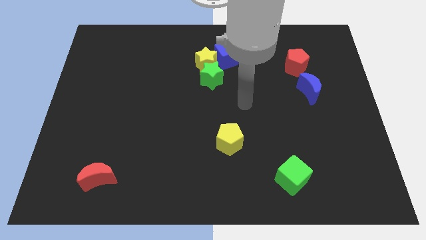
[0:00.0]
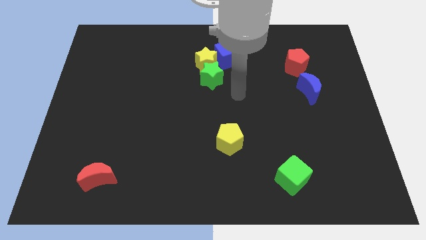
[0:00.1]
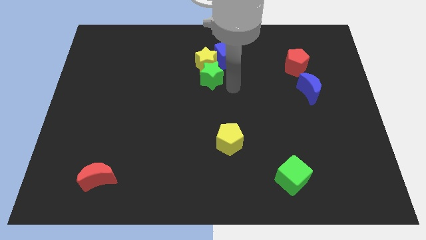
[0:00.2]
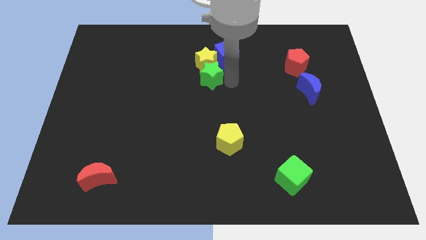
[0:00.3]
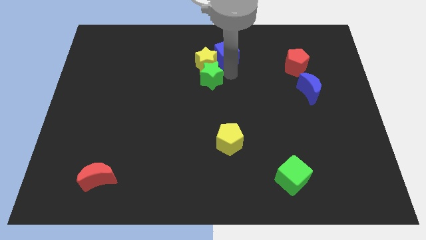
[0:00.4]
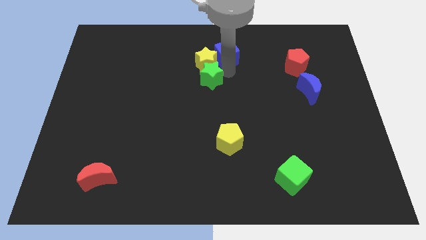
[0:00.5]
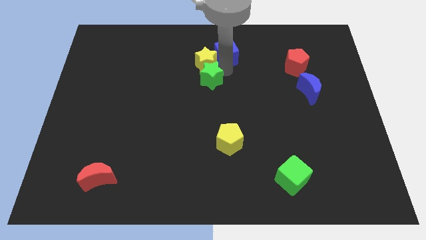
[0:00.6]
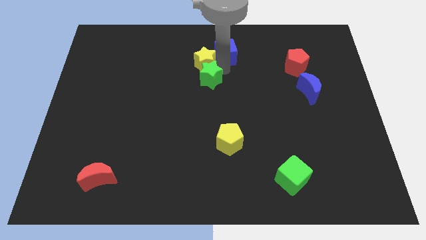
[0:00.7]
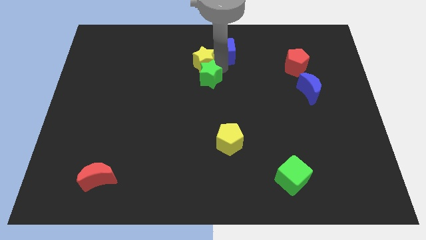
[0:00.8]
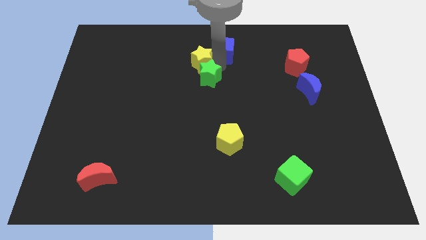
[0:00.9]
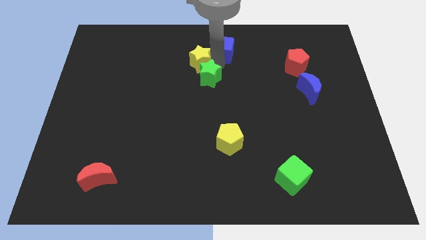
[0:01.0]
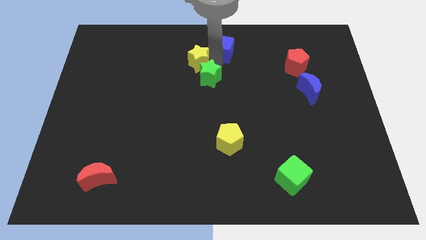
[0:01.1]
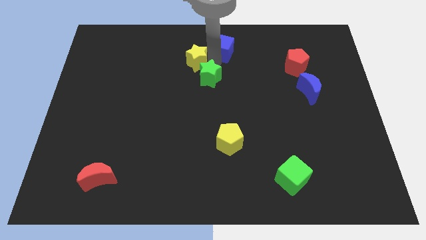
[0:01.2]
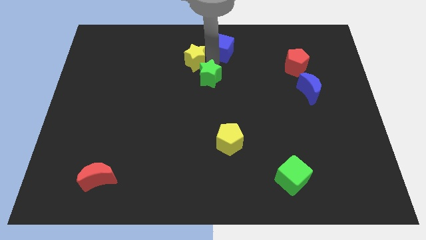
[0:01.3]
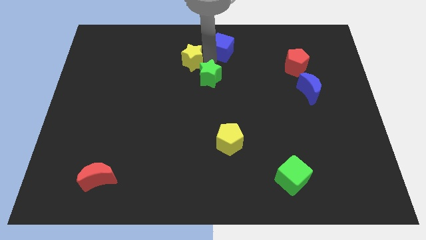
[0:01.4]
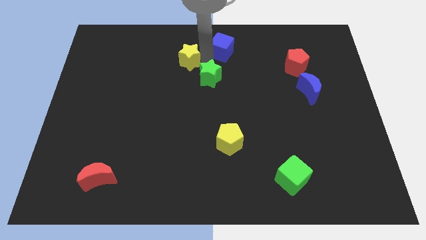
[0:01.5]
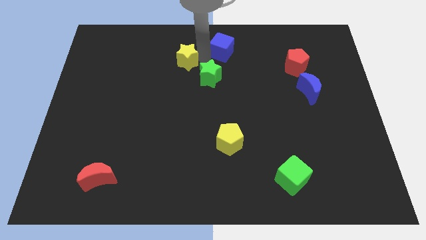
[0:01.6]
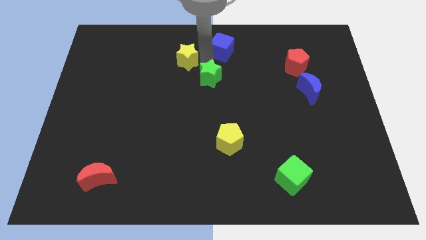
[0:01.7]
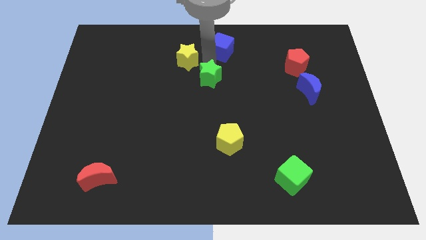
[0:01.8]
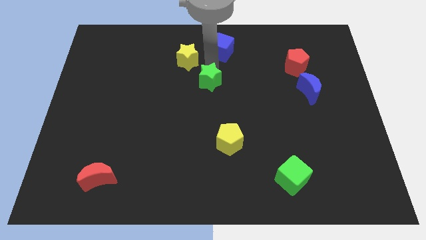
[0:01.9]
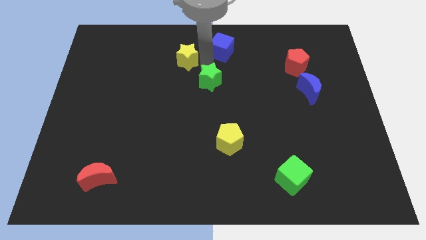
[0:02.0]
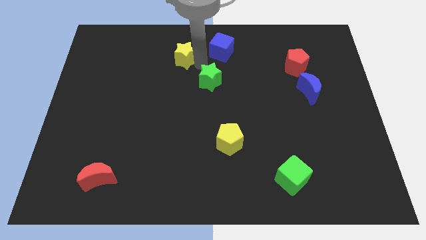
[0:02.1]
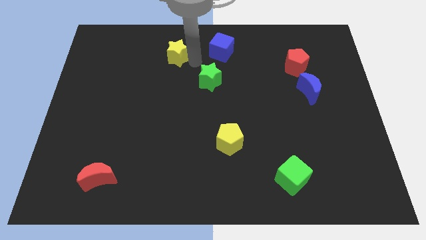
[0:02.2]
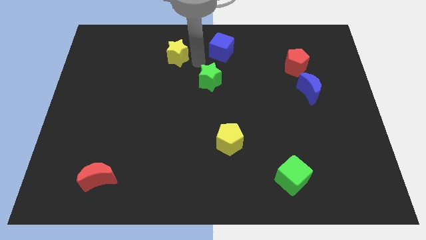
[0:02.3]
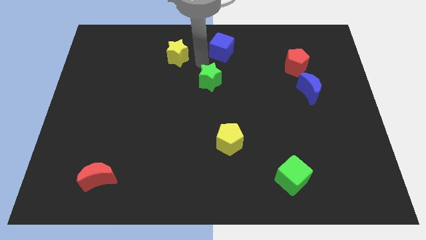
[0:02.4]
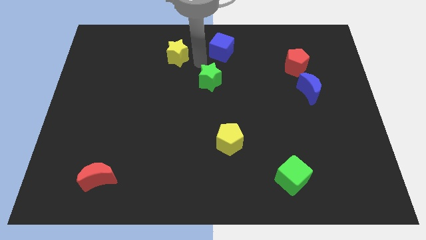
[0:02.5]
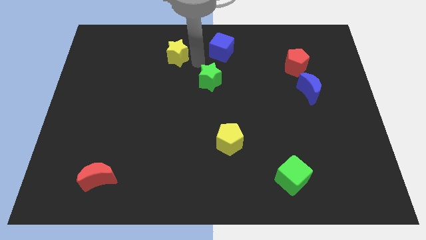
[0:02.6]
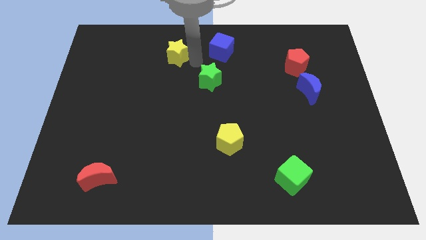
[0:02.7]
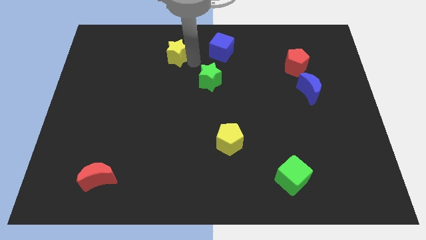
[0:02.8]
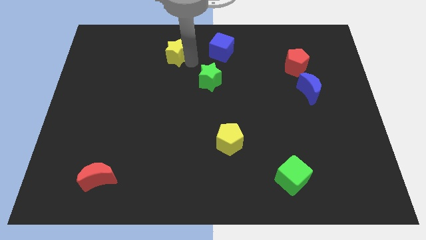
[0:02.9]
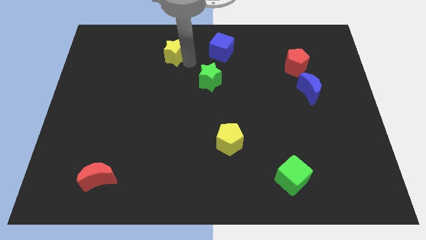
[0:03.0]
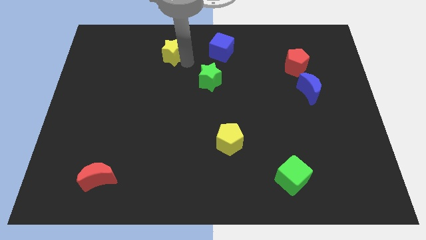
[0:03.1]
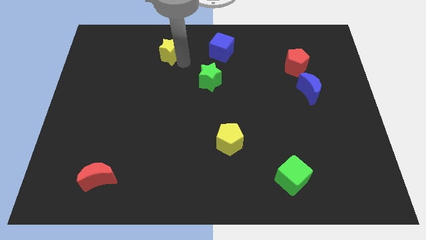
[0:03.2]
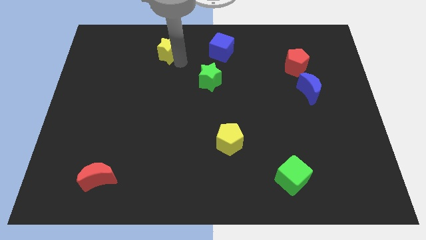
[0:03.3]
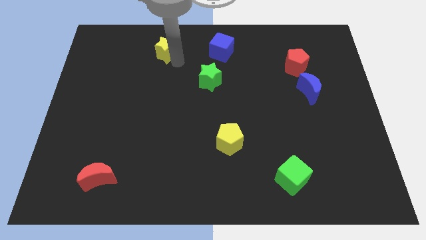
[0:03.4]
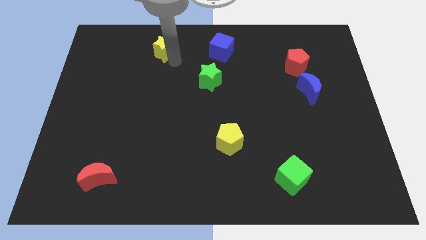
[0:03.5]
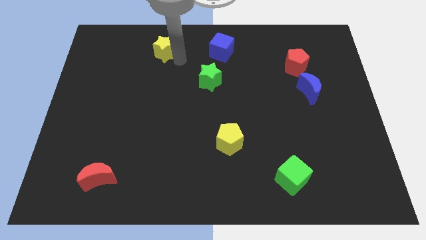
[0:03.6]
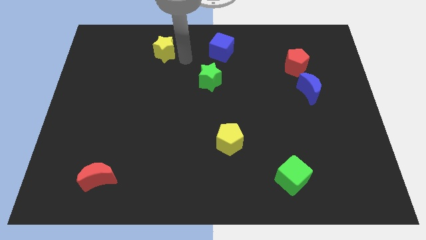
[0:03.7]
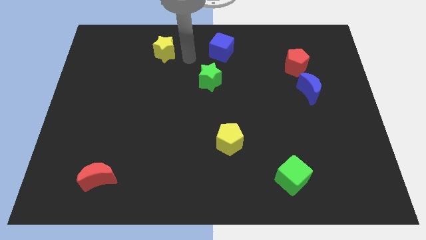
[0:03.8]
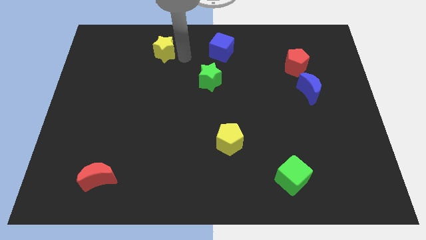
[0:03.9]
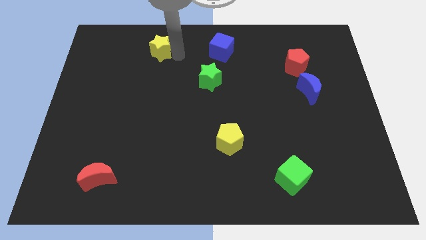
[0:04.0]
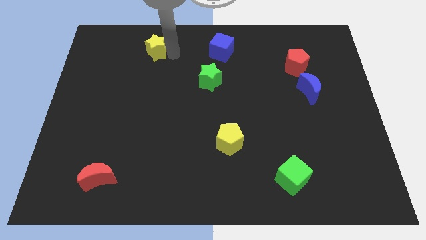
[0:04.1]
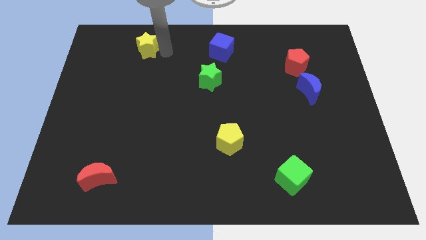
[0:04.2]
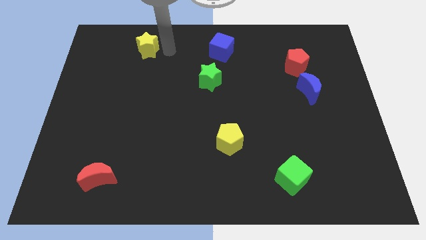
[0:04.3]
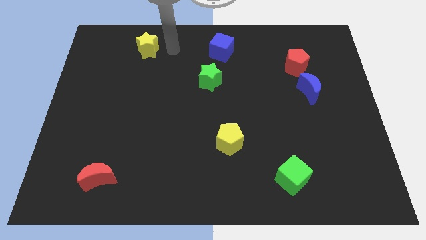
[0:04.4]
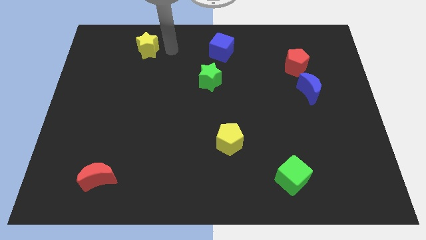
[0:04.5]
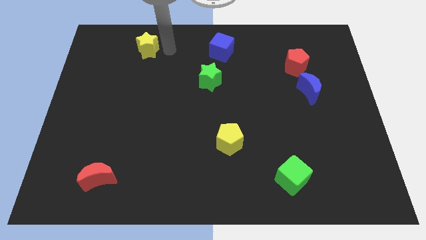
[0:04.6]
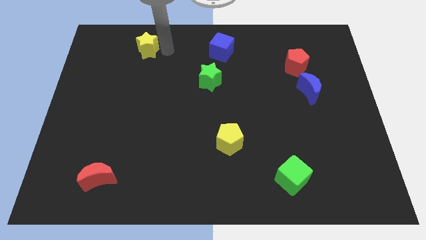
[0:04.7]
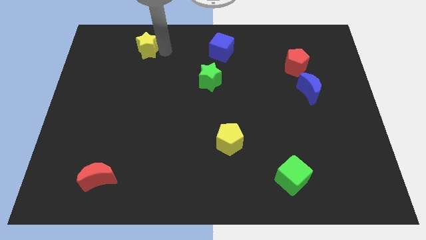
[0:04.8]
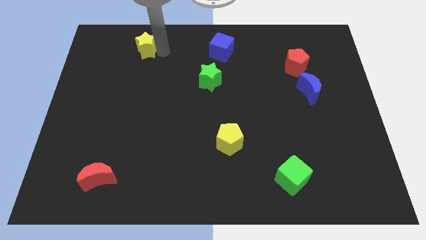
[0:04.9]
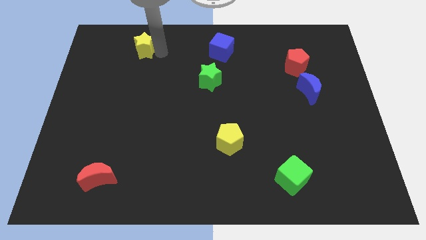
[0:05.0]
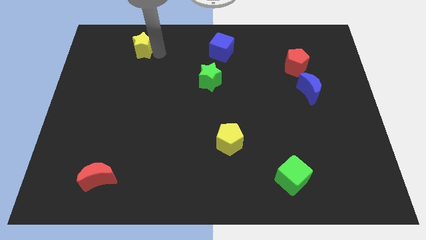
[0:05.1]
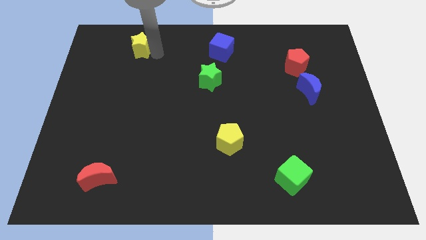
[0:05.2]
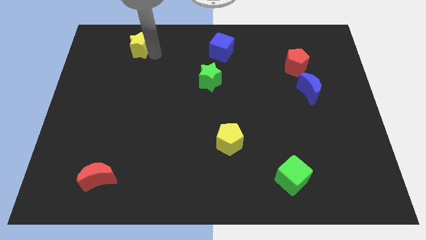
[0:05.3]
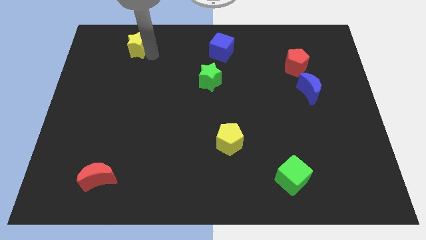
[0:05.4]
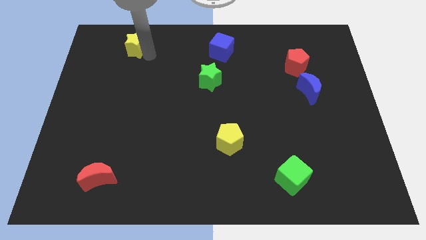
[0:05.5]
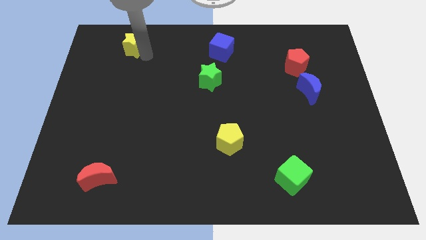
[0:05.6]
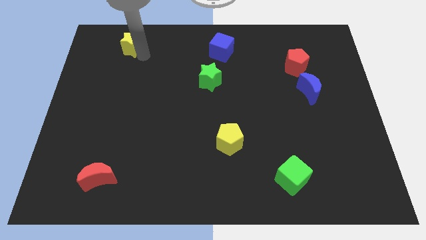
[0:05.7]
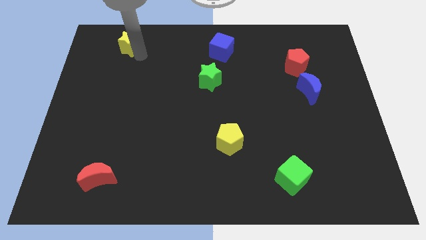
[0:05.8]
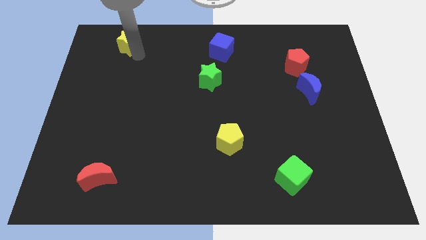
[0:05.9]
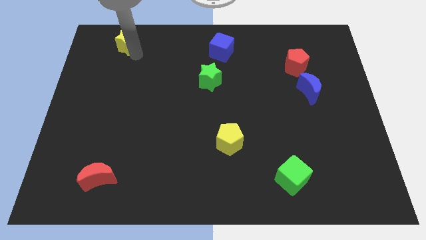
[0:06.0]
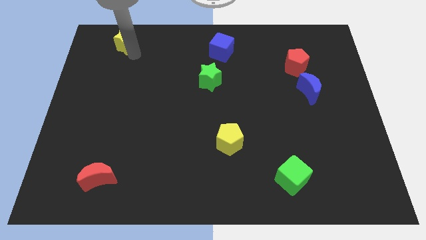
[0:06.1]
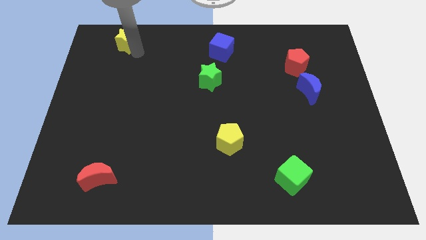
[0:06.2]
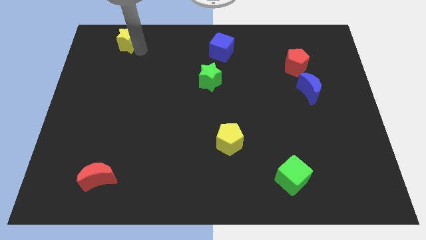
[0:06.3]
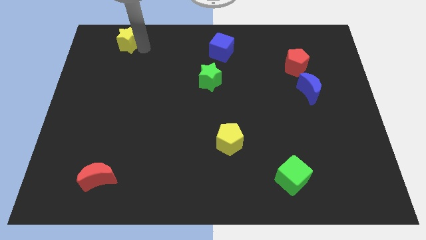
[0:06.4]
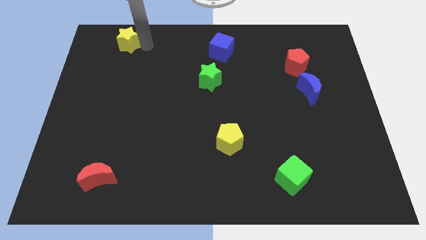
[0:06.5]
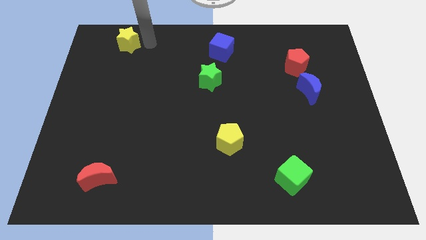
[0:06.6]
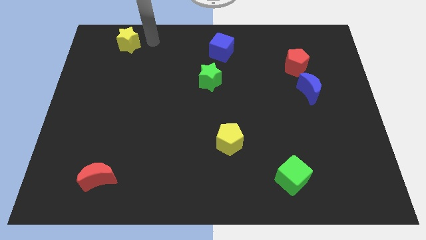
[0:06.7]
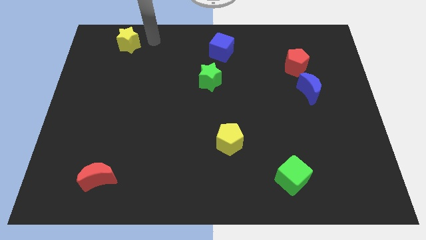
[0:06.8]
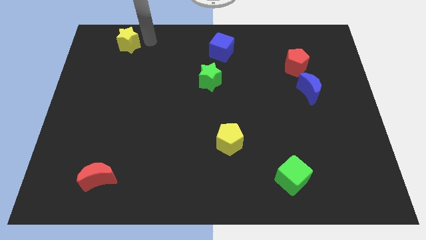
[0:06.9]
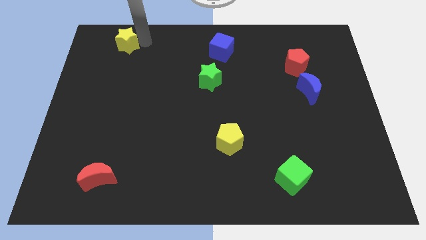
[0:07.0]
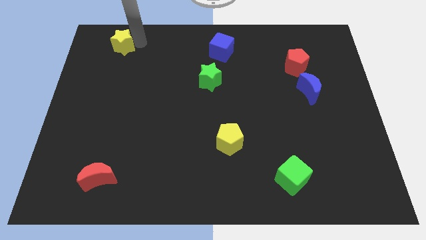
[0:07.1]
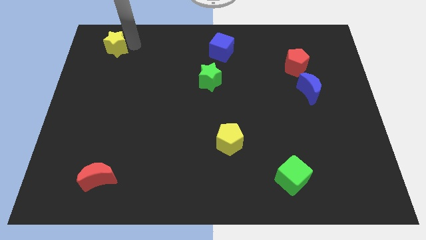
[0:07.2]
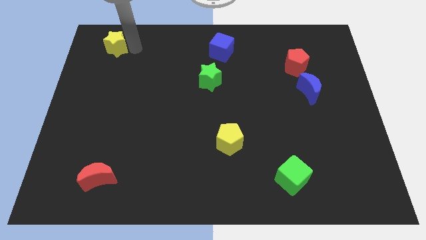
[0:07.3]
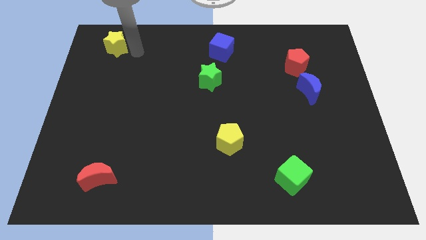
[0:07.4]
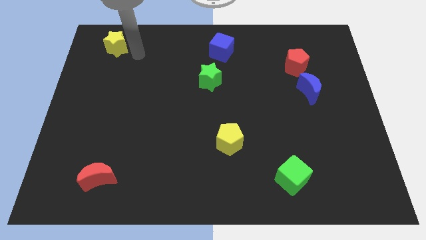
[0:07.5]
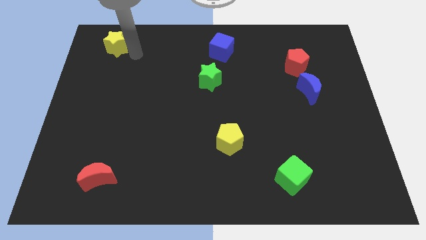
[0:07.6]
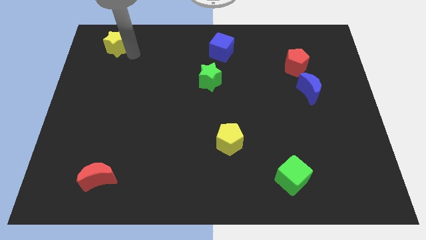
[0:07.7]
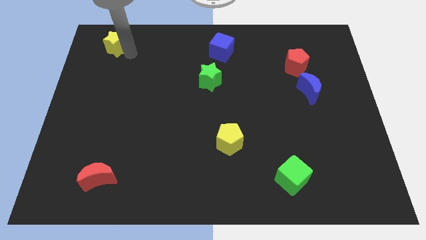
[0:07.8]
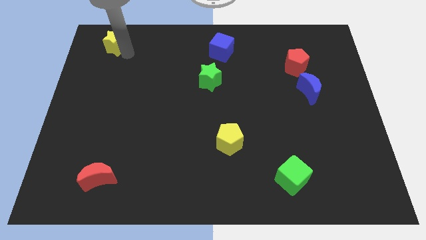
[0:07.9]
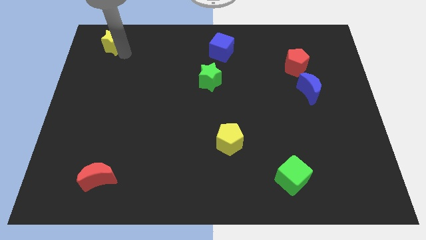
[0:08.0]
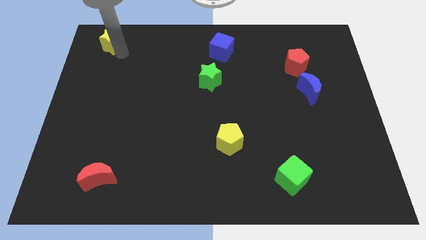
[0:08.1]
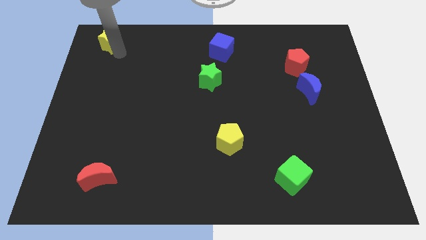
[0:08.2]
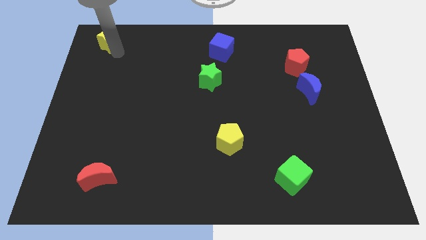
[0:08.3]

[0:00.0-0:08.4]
put the yellow star to the upper left corner
